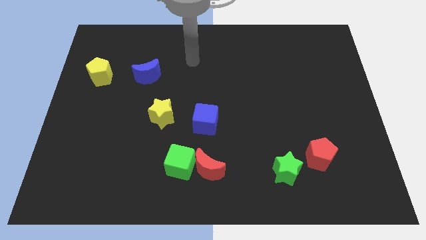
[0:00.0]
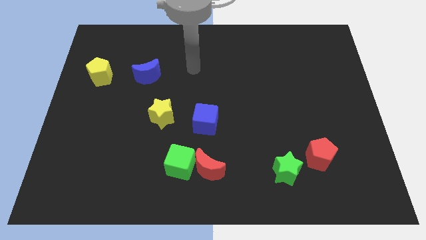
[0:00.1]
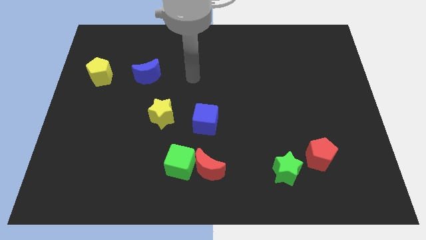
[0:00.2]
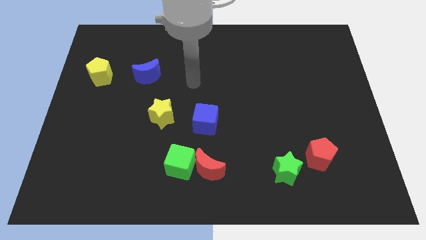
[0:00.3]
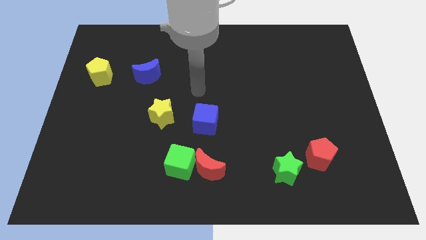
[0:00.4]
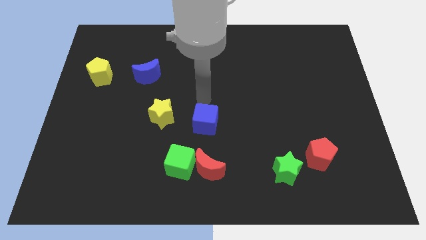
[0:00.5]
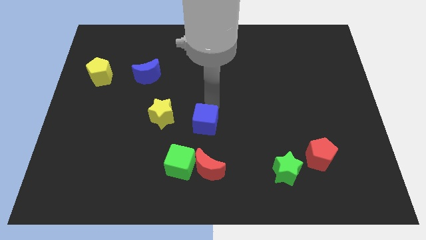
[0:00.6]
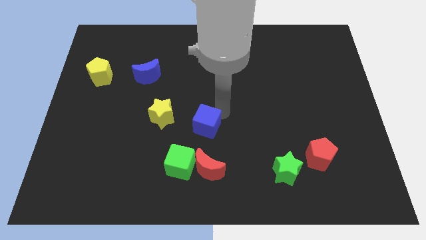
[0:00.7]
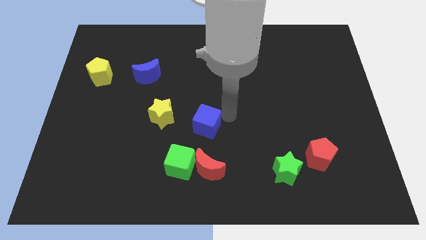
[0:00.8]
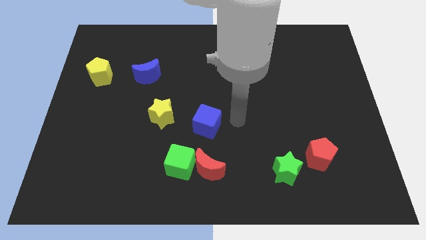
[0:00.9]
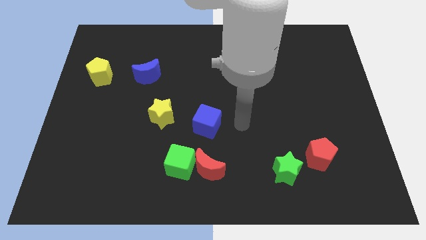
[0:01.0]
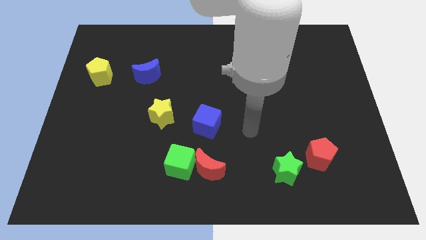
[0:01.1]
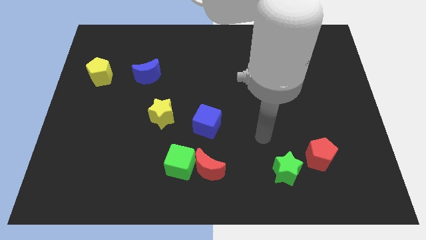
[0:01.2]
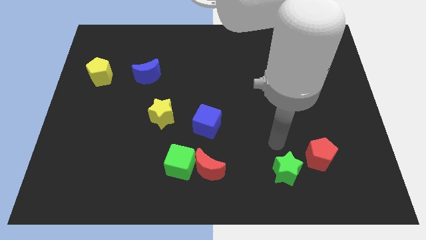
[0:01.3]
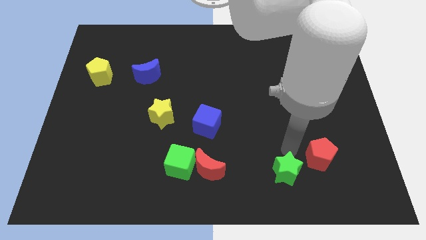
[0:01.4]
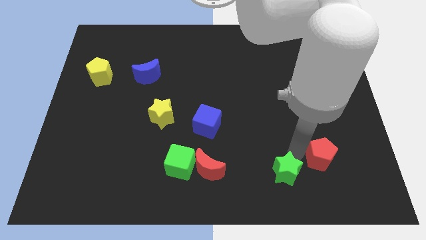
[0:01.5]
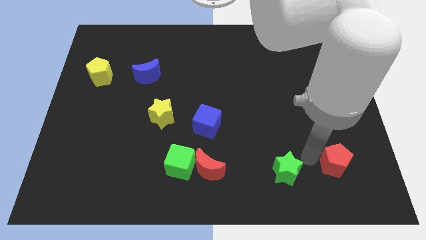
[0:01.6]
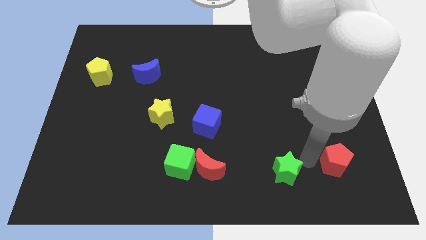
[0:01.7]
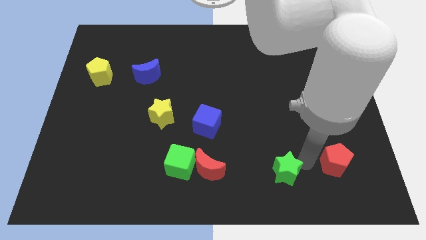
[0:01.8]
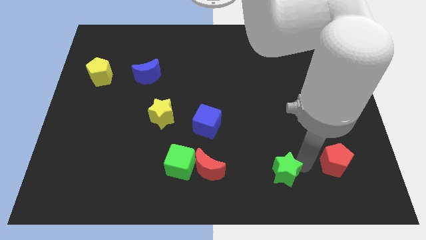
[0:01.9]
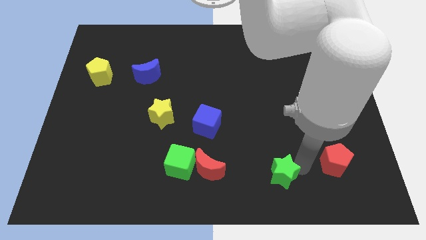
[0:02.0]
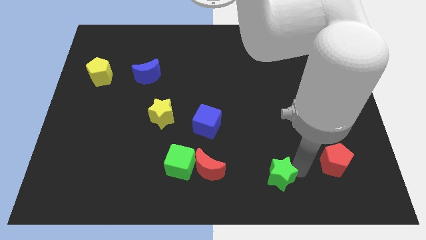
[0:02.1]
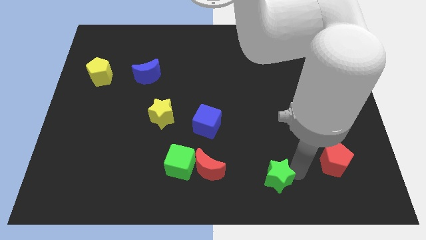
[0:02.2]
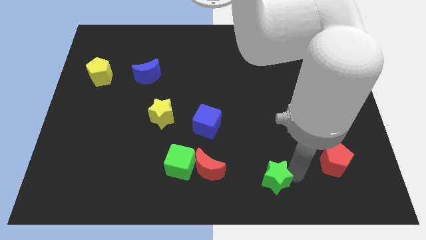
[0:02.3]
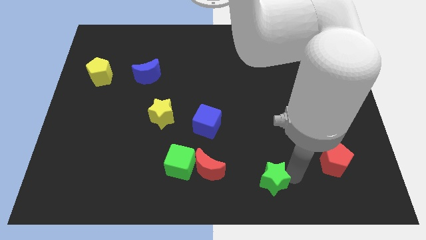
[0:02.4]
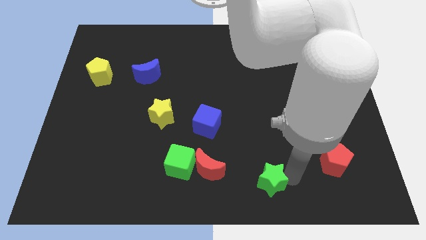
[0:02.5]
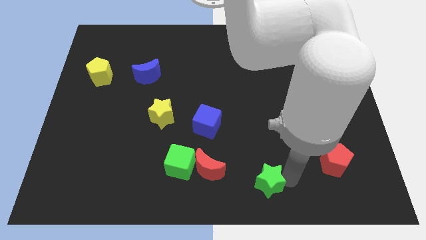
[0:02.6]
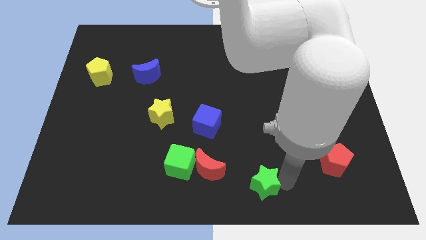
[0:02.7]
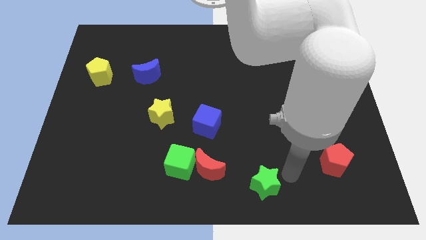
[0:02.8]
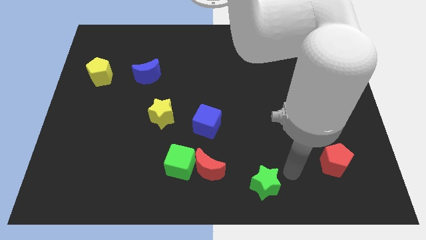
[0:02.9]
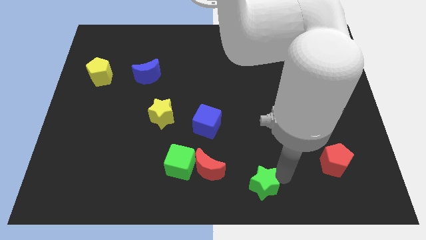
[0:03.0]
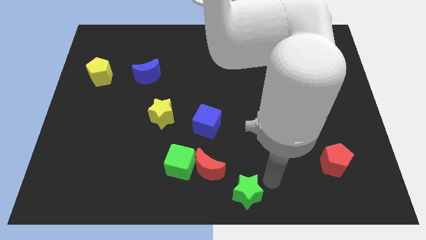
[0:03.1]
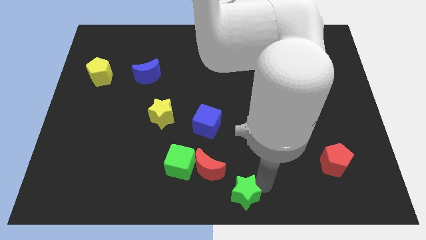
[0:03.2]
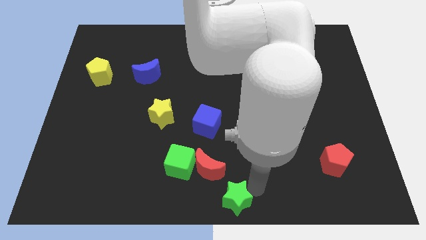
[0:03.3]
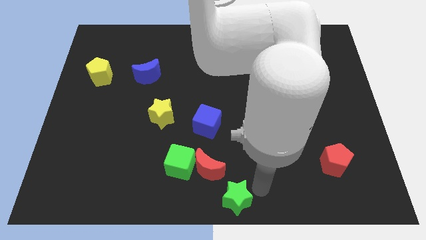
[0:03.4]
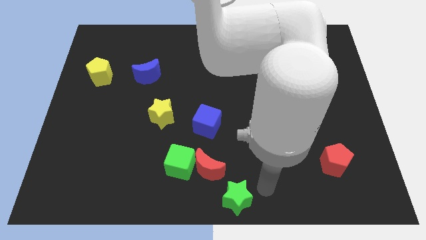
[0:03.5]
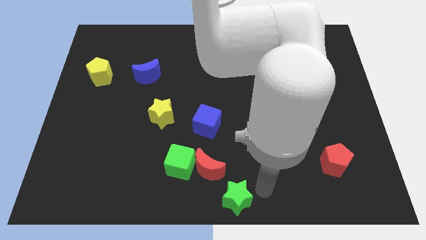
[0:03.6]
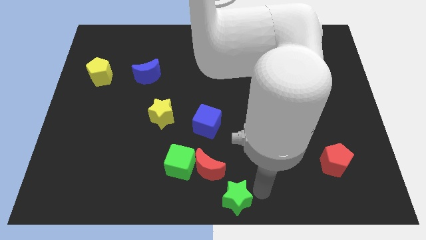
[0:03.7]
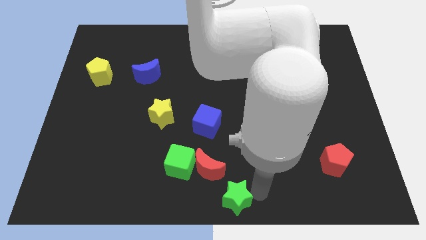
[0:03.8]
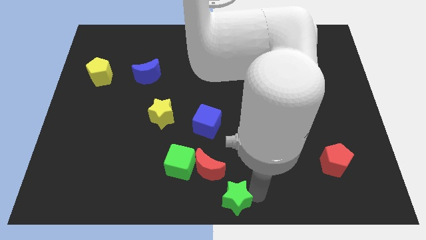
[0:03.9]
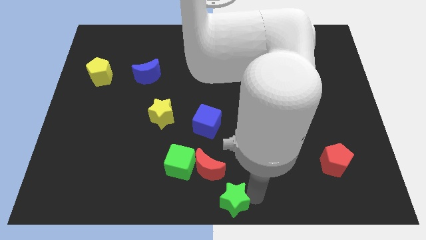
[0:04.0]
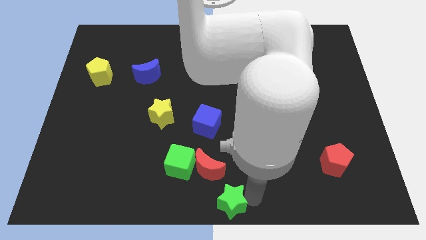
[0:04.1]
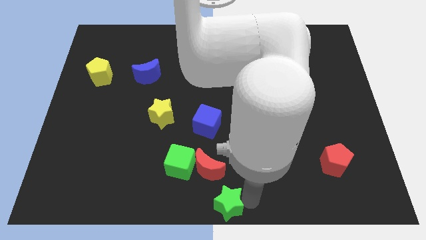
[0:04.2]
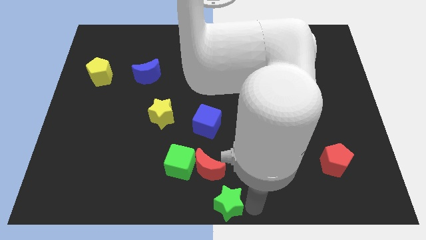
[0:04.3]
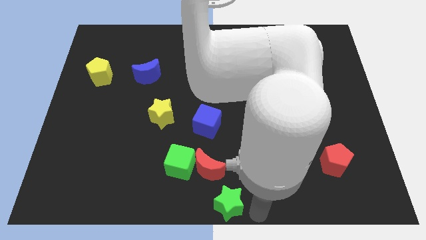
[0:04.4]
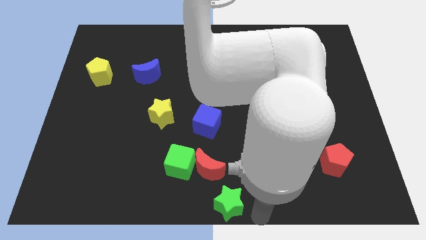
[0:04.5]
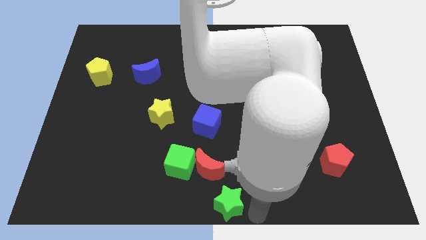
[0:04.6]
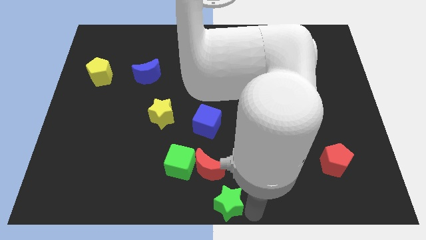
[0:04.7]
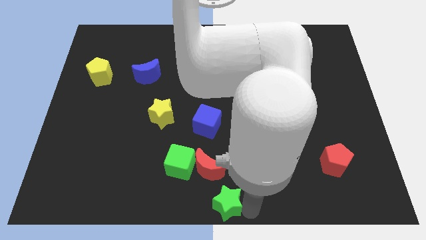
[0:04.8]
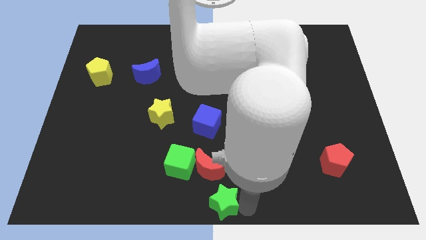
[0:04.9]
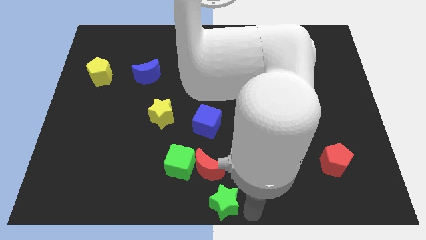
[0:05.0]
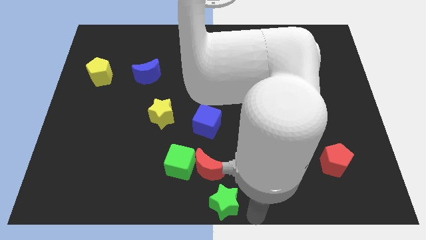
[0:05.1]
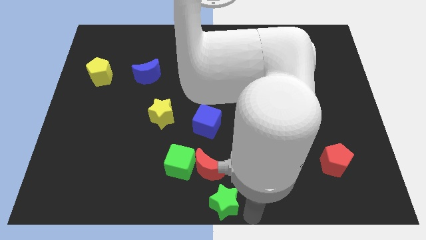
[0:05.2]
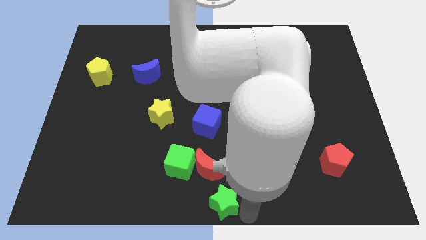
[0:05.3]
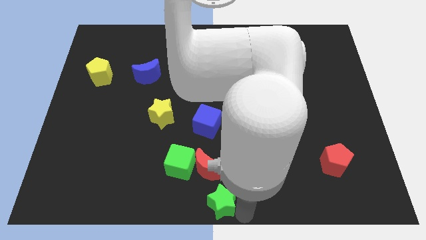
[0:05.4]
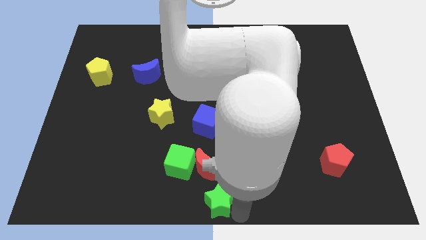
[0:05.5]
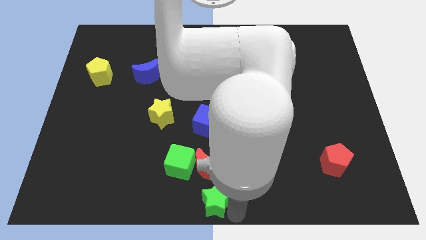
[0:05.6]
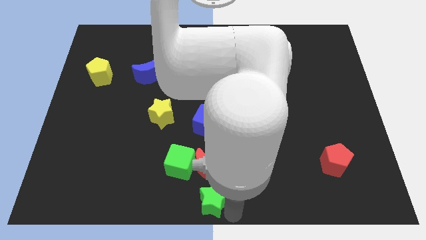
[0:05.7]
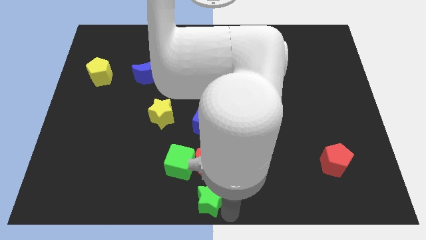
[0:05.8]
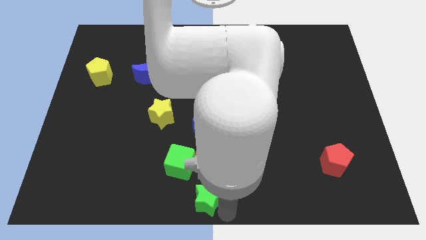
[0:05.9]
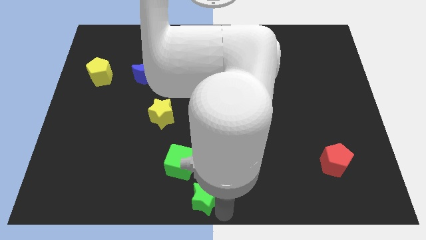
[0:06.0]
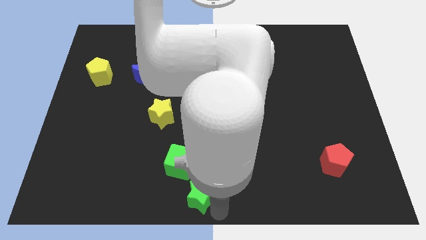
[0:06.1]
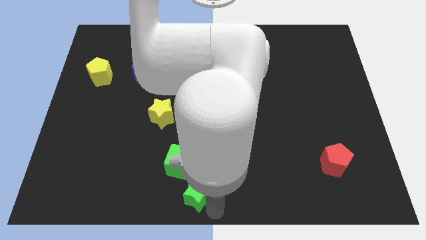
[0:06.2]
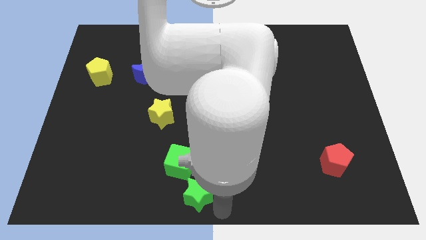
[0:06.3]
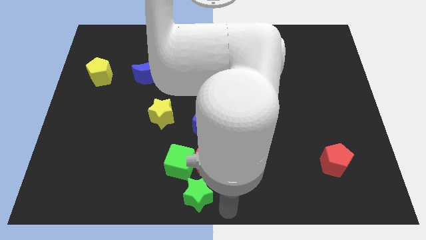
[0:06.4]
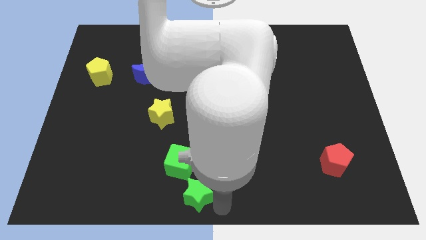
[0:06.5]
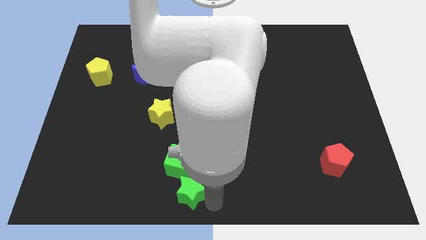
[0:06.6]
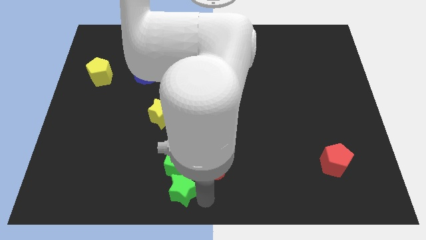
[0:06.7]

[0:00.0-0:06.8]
push the green star to the left

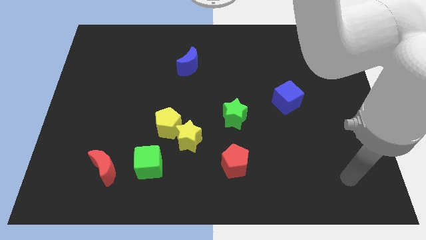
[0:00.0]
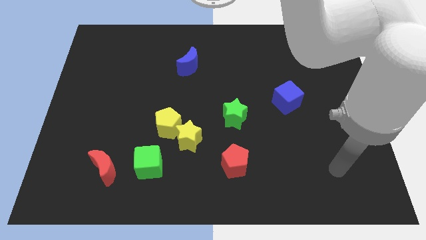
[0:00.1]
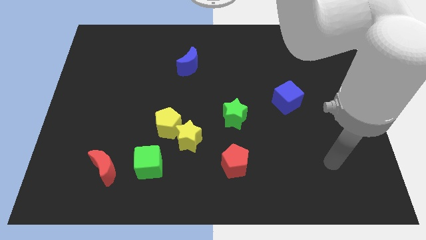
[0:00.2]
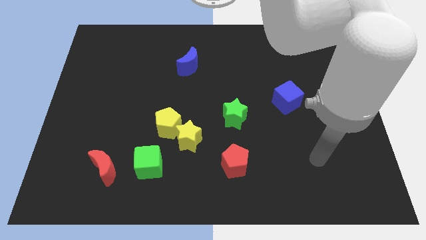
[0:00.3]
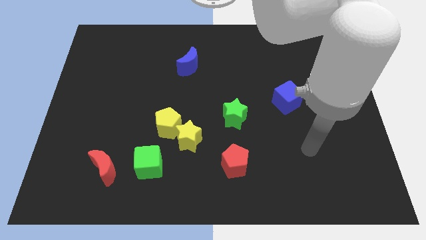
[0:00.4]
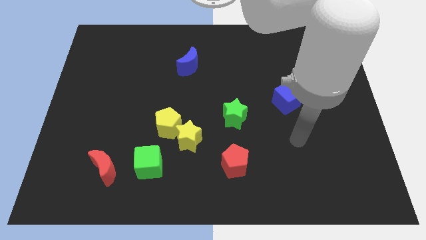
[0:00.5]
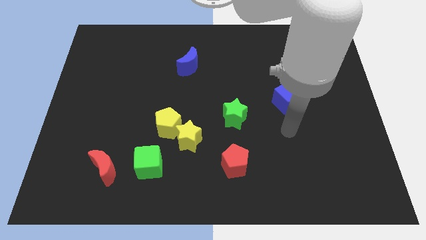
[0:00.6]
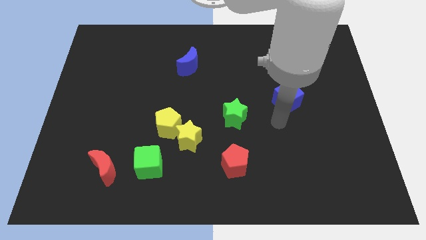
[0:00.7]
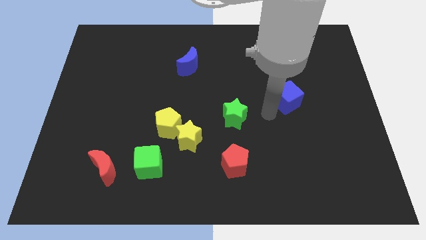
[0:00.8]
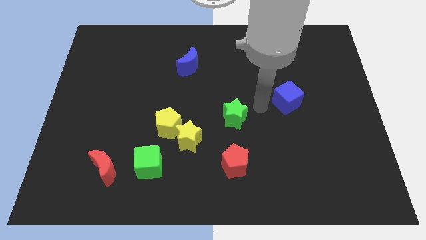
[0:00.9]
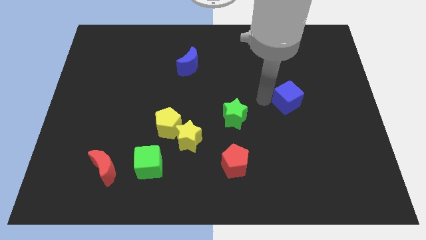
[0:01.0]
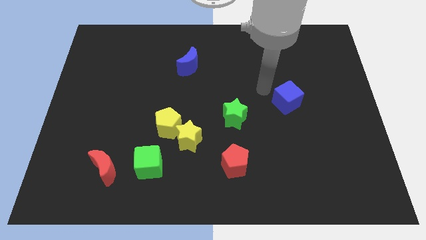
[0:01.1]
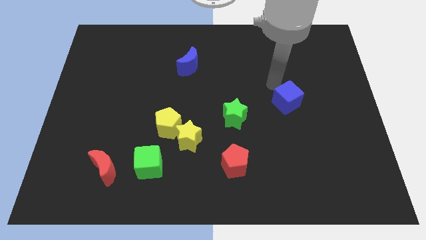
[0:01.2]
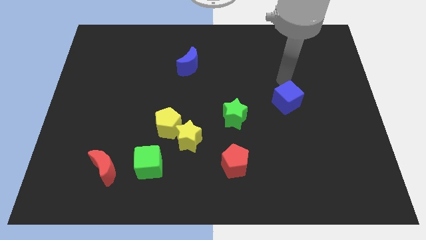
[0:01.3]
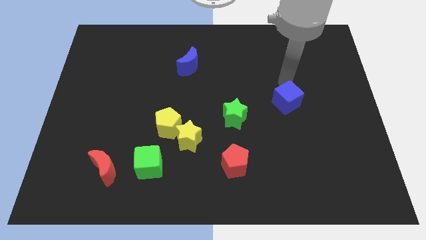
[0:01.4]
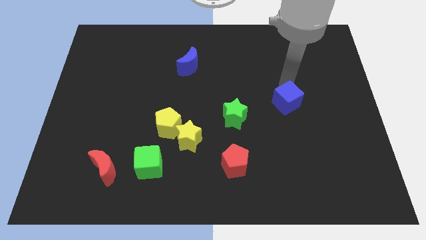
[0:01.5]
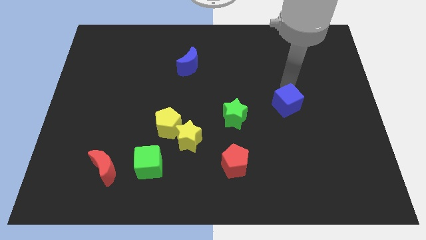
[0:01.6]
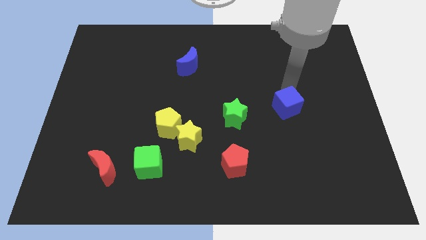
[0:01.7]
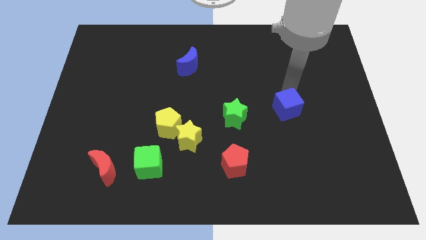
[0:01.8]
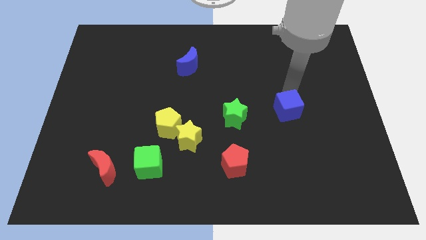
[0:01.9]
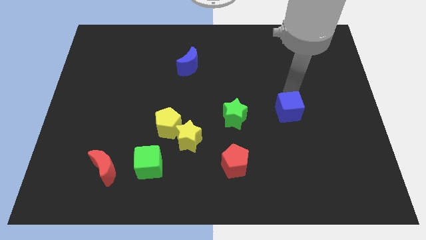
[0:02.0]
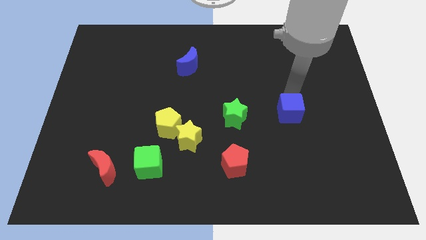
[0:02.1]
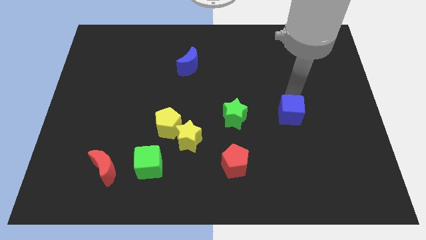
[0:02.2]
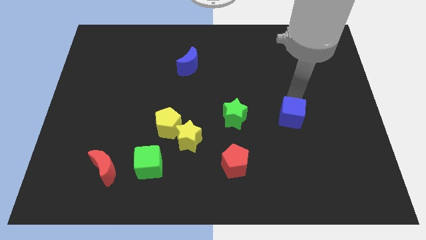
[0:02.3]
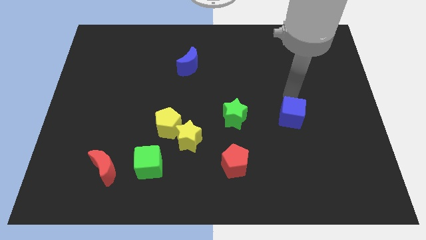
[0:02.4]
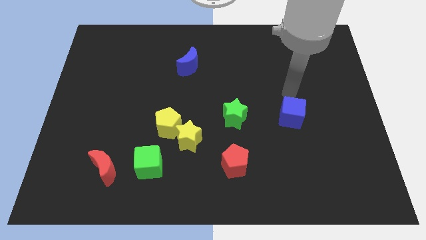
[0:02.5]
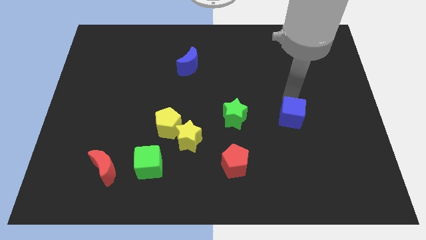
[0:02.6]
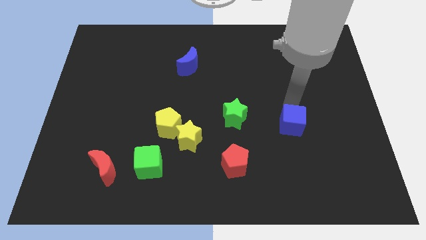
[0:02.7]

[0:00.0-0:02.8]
slightly move the blue cube downwards
